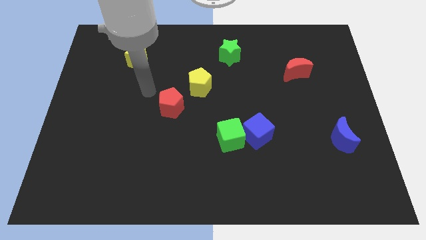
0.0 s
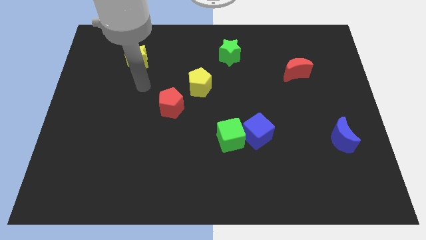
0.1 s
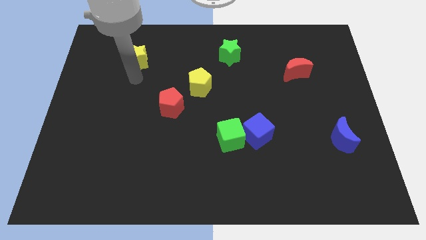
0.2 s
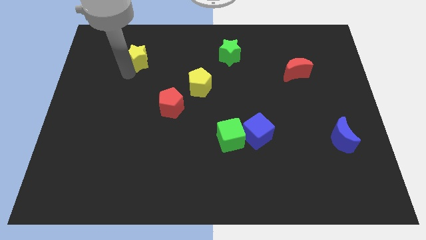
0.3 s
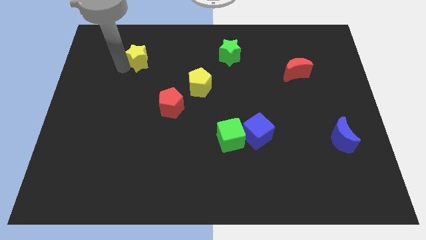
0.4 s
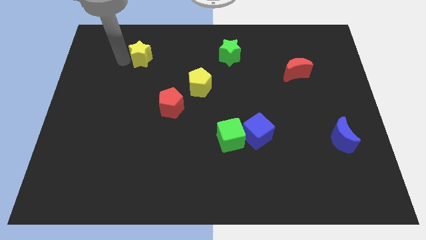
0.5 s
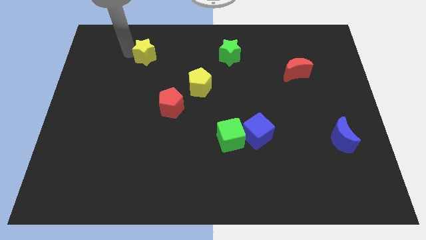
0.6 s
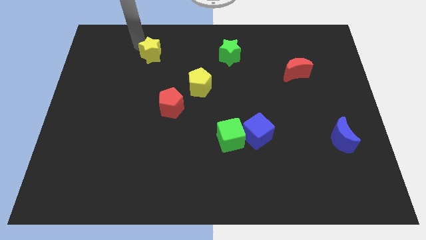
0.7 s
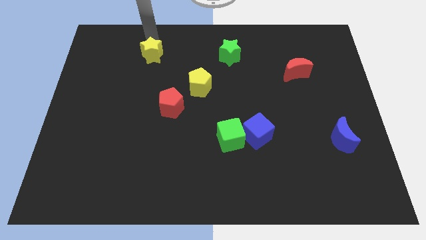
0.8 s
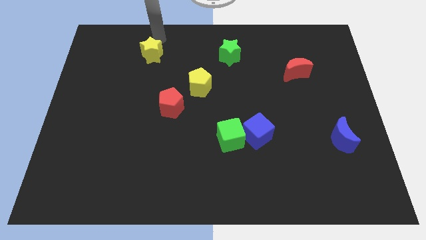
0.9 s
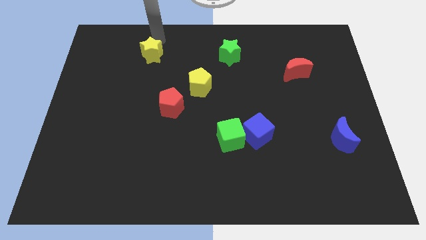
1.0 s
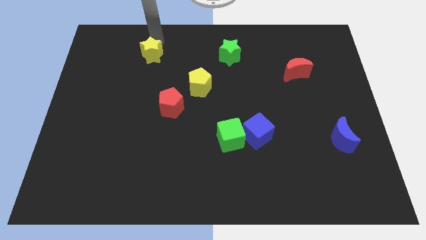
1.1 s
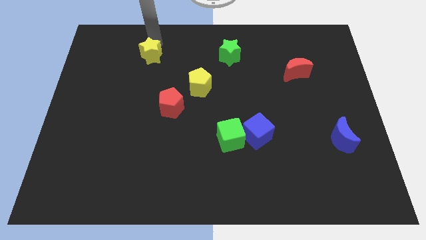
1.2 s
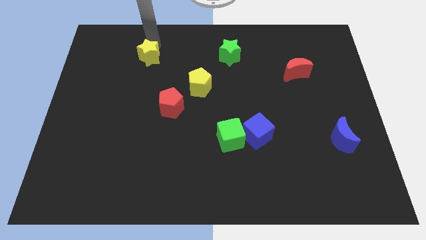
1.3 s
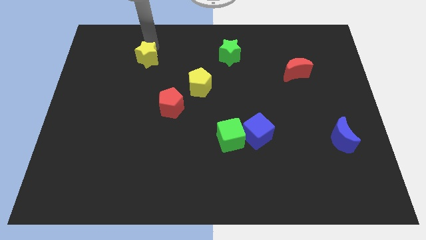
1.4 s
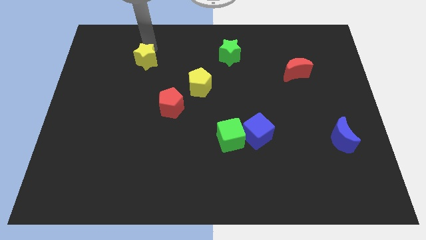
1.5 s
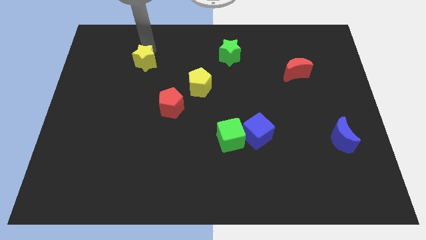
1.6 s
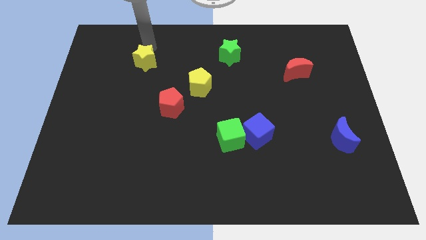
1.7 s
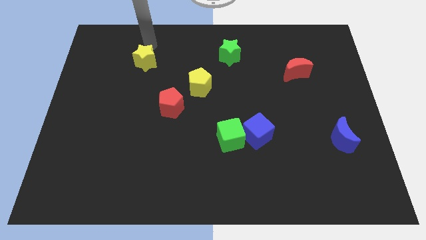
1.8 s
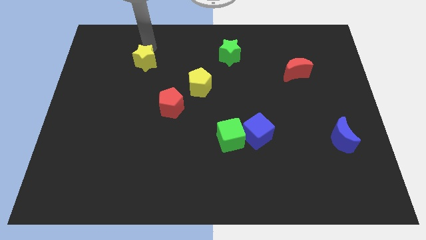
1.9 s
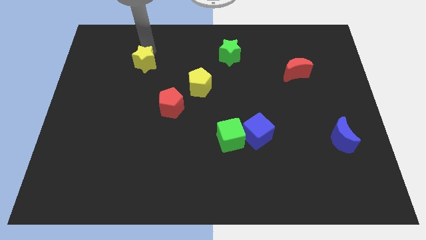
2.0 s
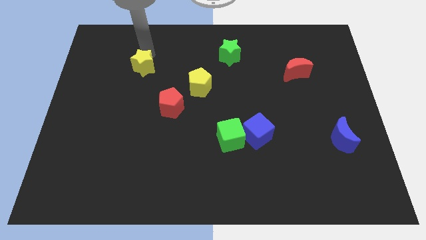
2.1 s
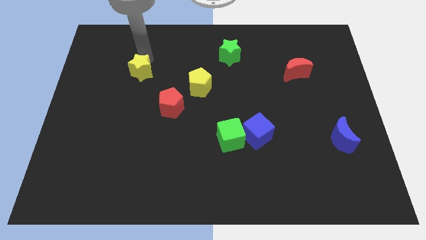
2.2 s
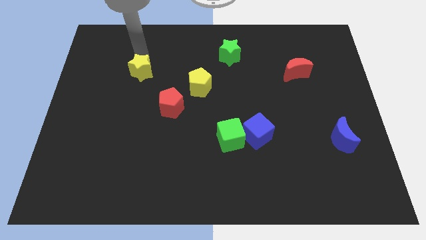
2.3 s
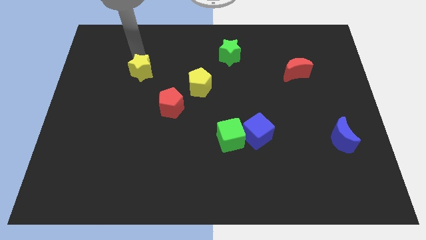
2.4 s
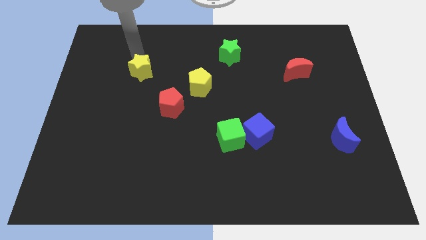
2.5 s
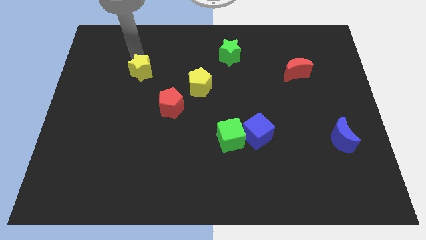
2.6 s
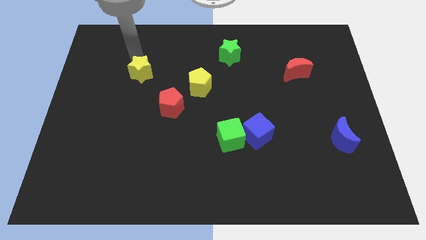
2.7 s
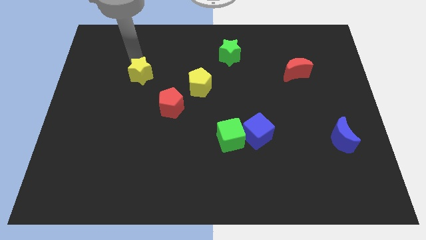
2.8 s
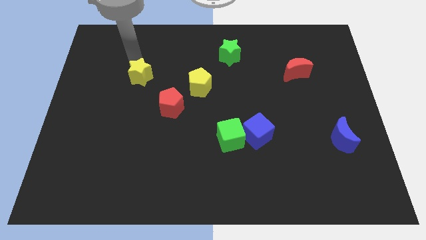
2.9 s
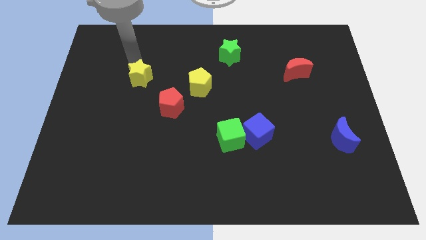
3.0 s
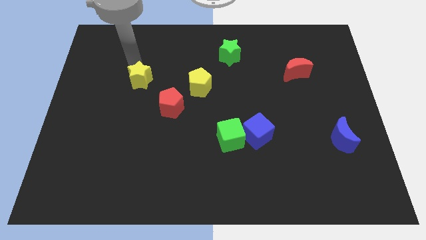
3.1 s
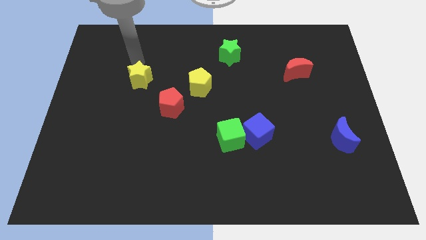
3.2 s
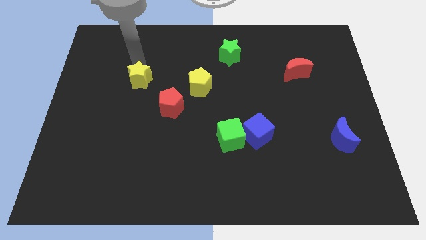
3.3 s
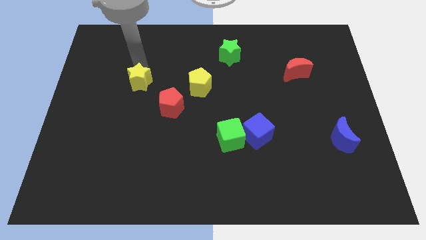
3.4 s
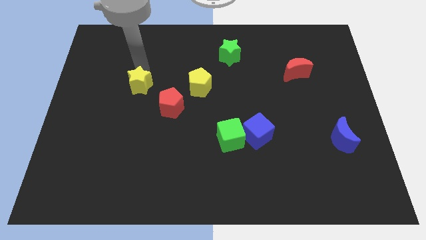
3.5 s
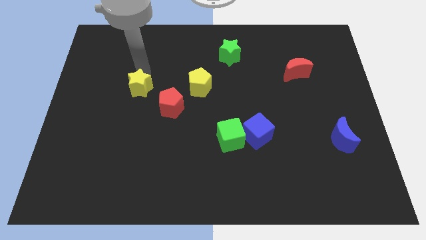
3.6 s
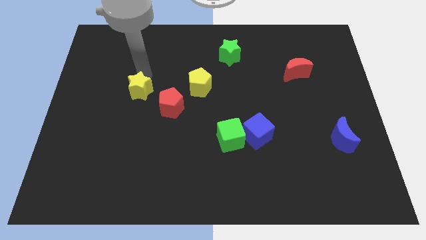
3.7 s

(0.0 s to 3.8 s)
slightly slide the yellow star diagonally down and right

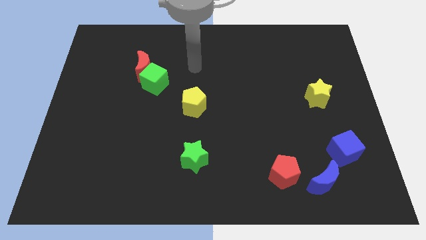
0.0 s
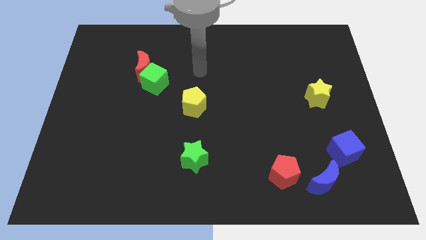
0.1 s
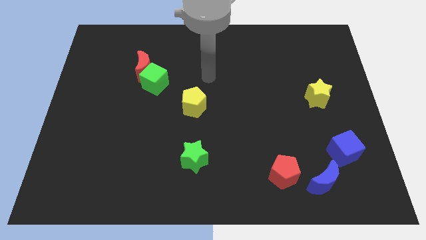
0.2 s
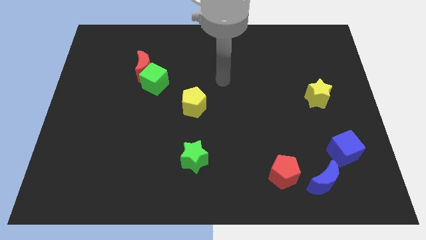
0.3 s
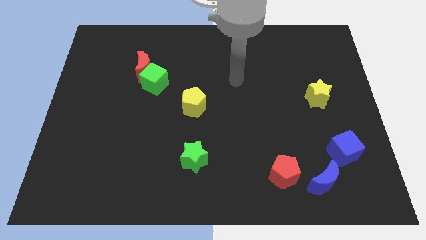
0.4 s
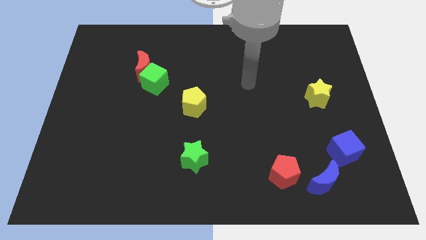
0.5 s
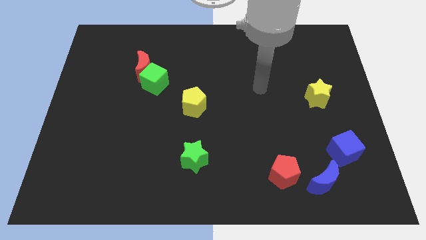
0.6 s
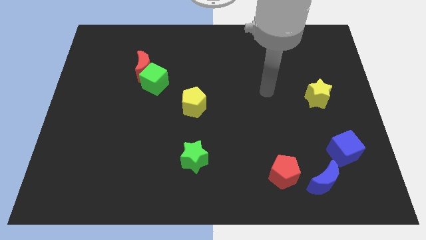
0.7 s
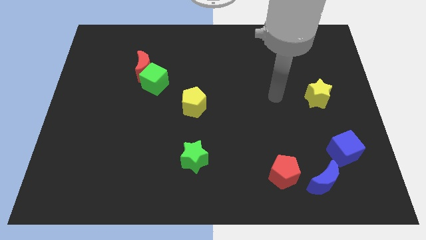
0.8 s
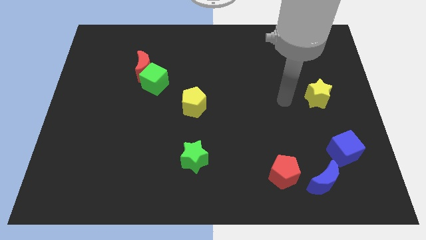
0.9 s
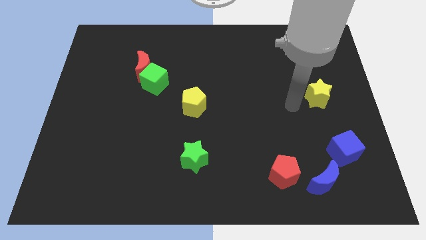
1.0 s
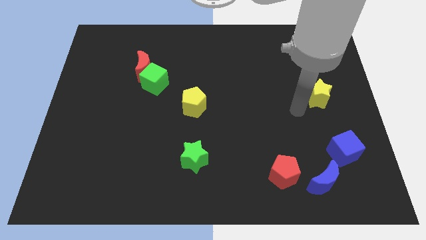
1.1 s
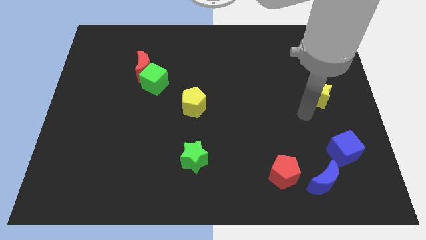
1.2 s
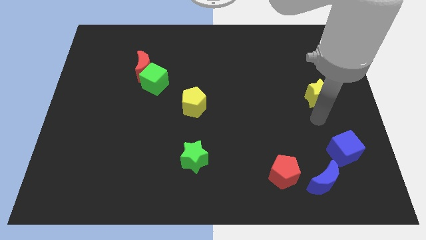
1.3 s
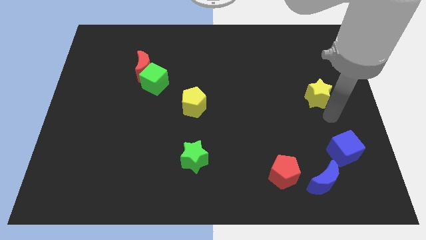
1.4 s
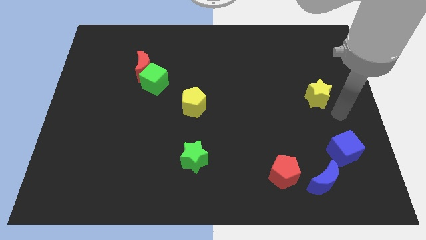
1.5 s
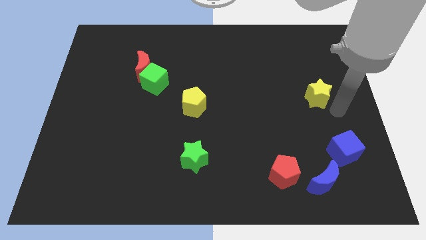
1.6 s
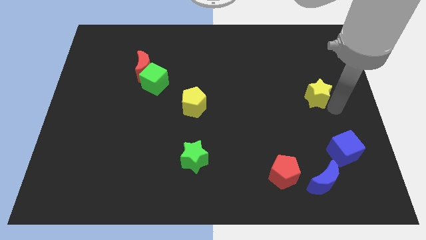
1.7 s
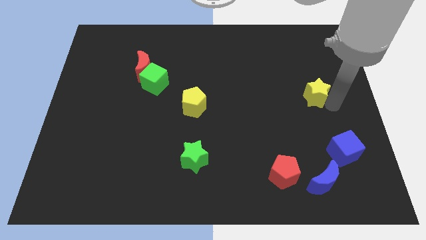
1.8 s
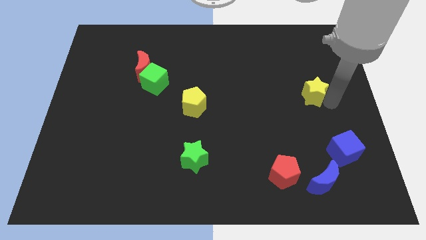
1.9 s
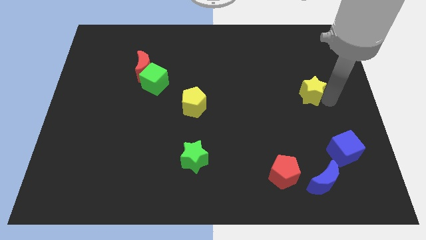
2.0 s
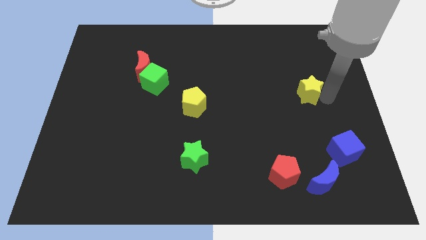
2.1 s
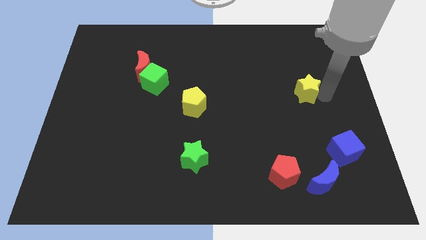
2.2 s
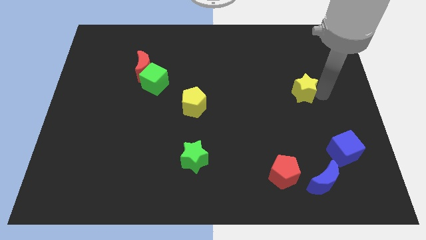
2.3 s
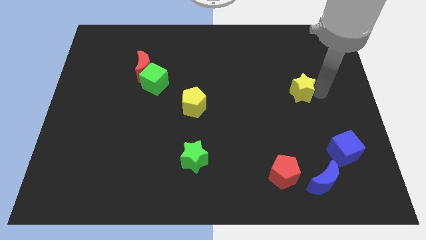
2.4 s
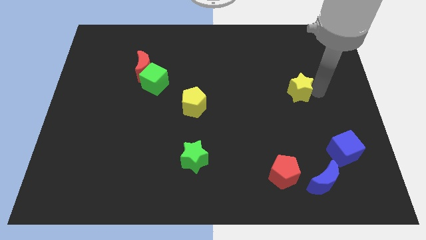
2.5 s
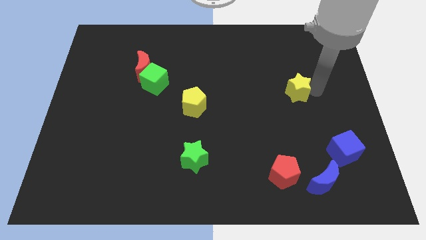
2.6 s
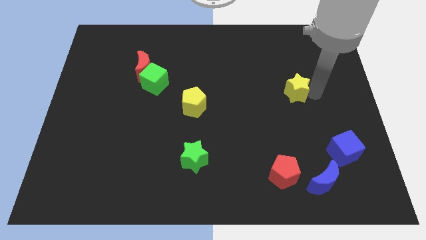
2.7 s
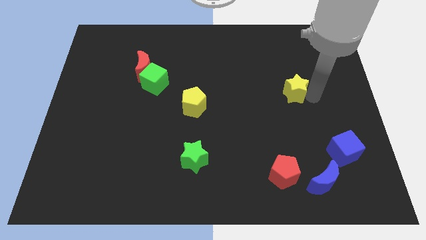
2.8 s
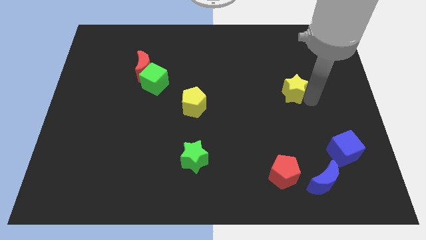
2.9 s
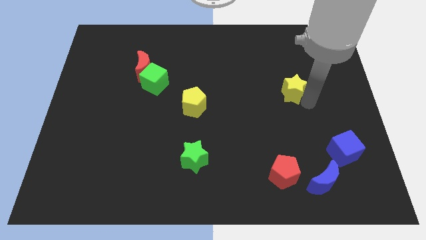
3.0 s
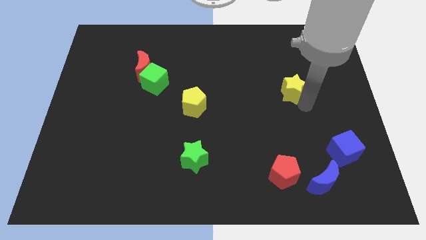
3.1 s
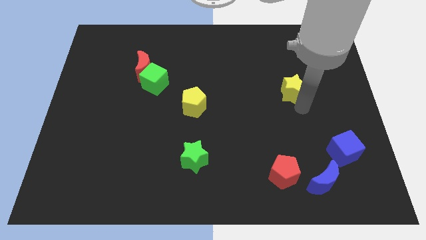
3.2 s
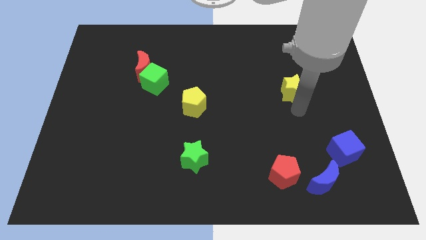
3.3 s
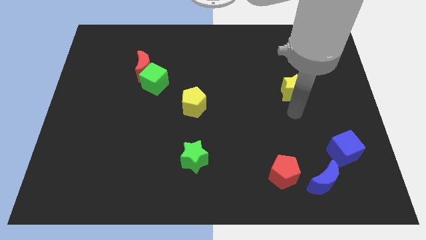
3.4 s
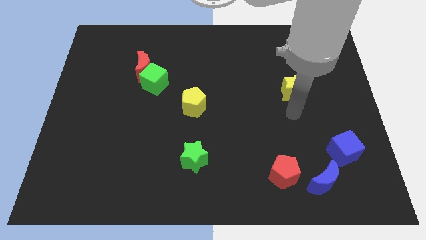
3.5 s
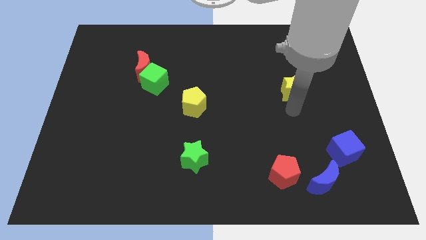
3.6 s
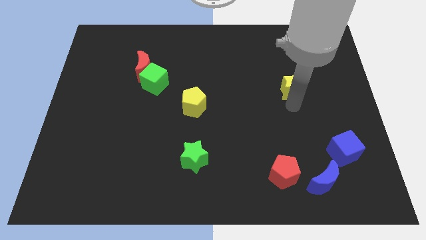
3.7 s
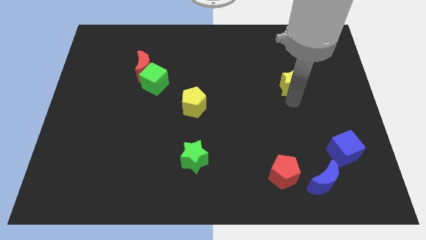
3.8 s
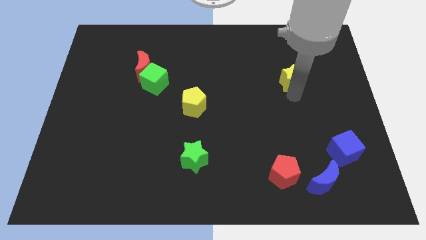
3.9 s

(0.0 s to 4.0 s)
slightly slide the yellow star up and then left
